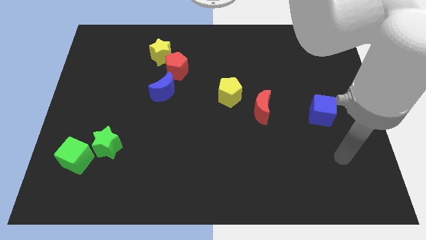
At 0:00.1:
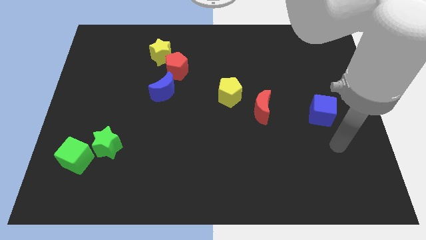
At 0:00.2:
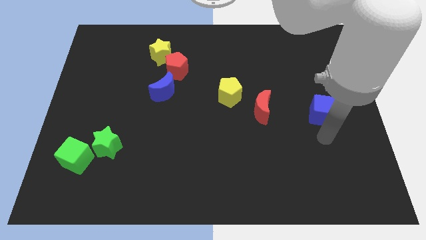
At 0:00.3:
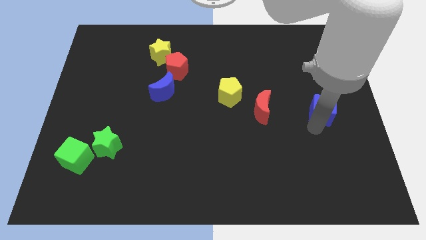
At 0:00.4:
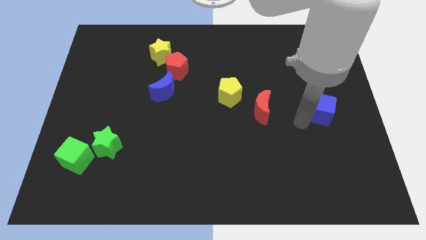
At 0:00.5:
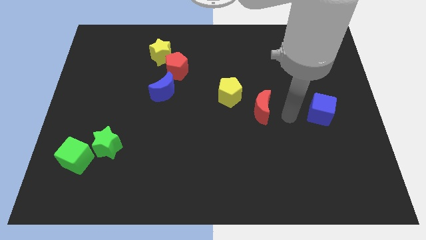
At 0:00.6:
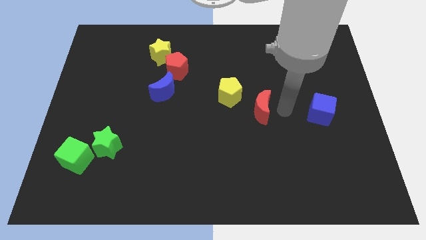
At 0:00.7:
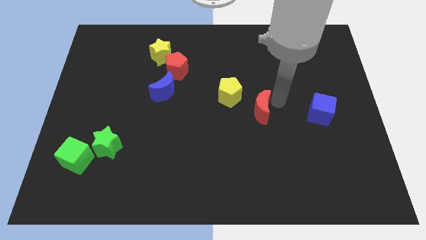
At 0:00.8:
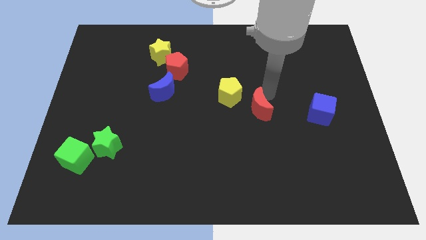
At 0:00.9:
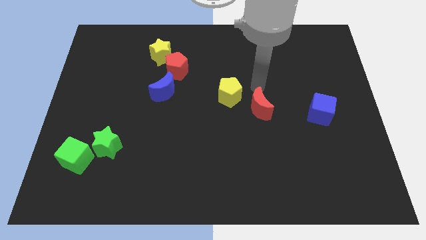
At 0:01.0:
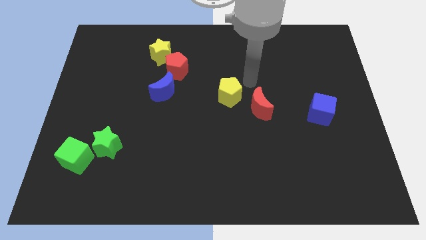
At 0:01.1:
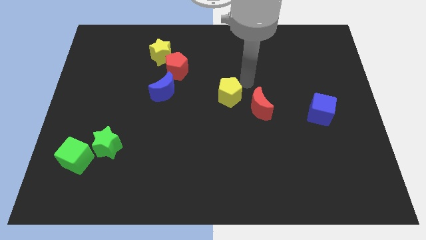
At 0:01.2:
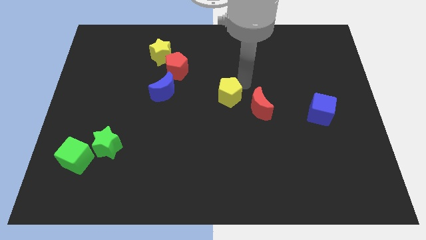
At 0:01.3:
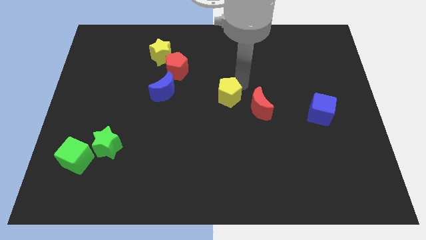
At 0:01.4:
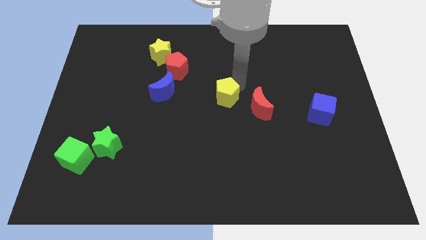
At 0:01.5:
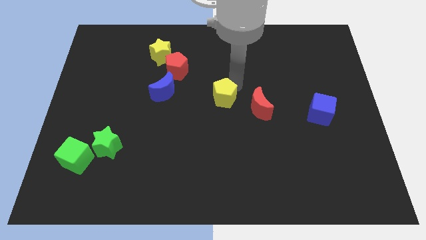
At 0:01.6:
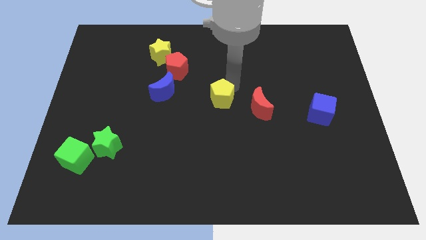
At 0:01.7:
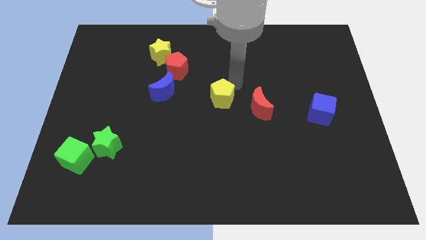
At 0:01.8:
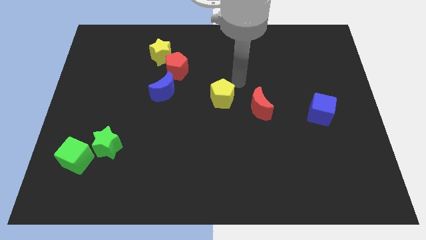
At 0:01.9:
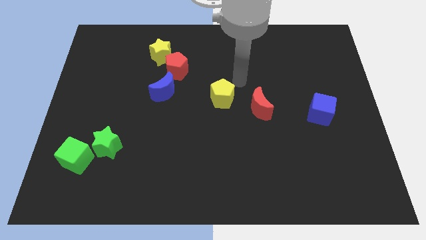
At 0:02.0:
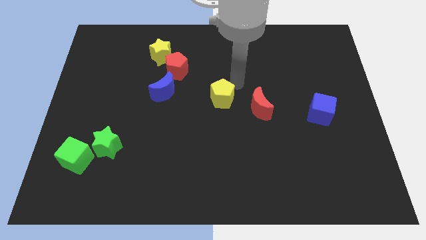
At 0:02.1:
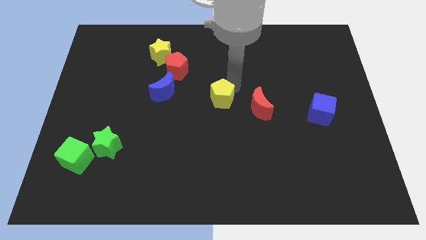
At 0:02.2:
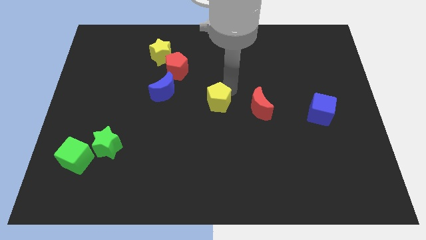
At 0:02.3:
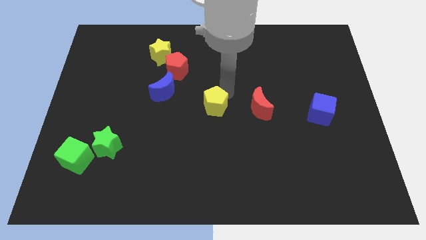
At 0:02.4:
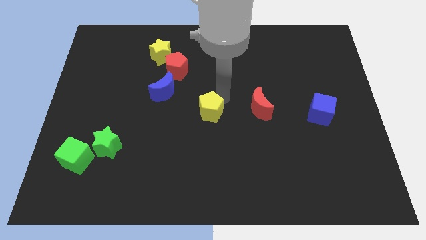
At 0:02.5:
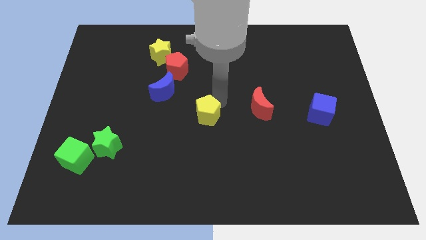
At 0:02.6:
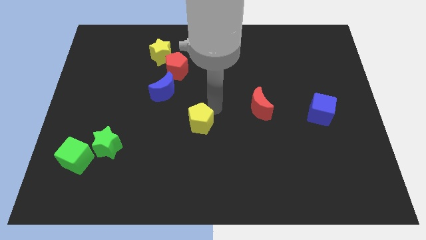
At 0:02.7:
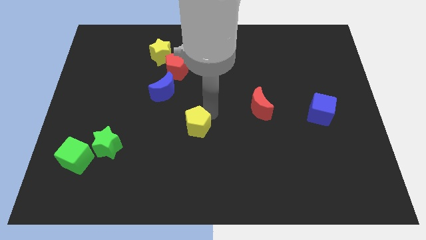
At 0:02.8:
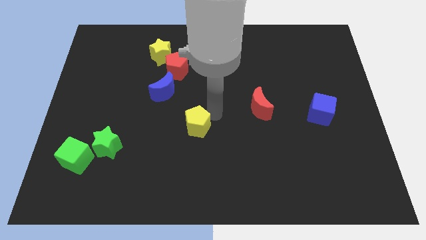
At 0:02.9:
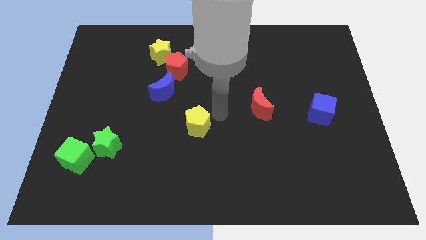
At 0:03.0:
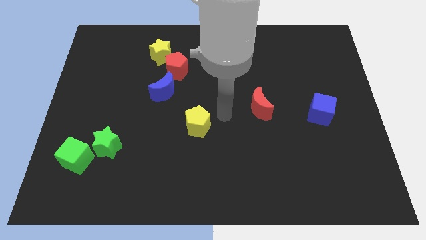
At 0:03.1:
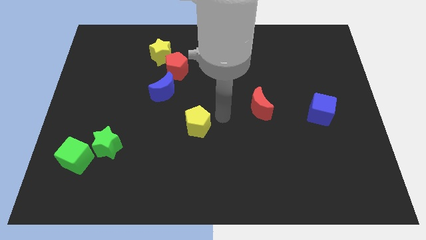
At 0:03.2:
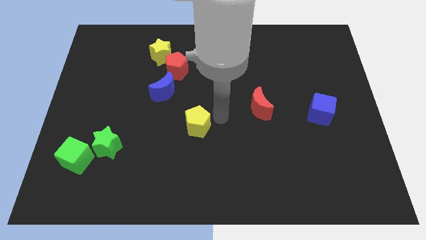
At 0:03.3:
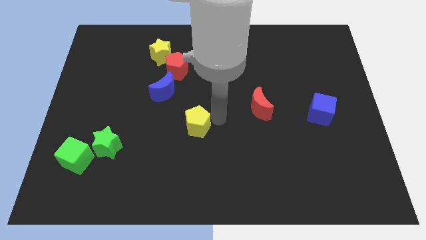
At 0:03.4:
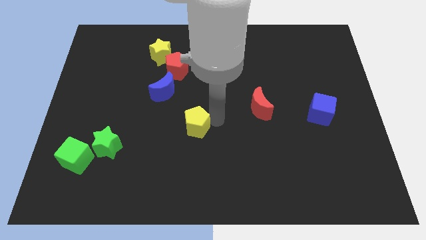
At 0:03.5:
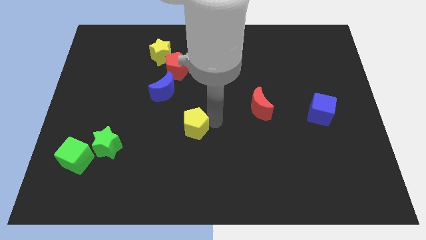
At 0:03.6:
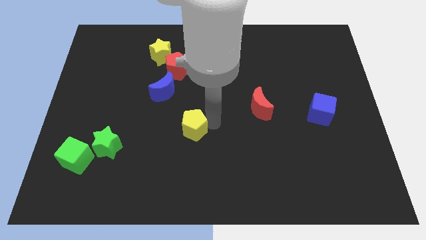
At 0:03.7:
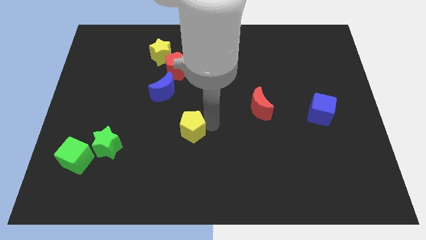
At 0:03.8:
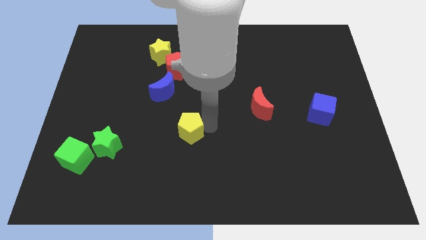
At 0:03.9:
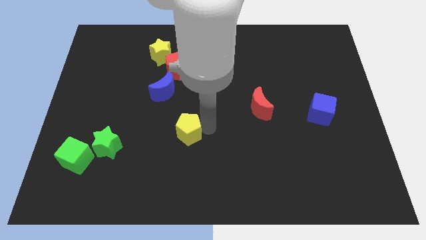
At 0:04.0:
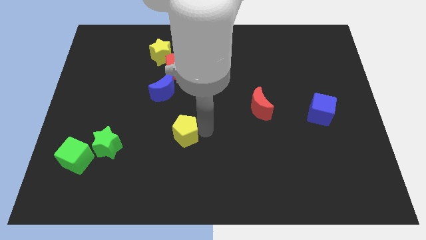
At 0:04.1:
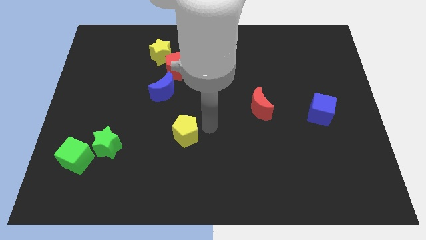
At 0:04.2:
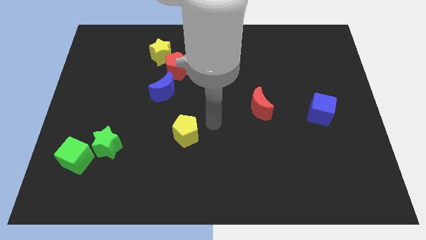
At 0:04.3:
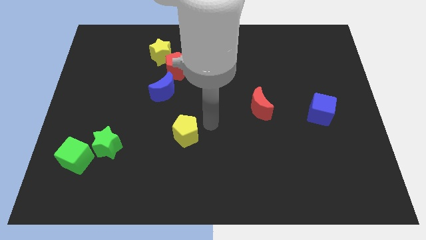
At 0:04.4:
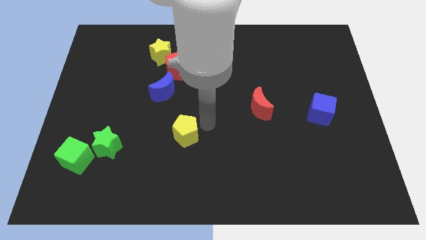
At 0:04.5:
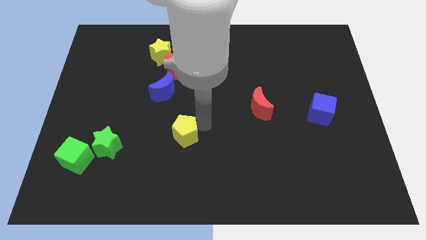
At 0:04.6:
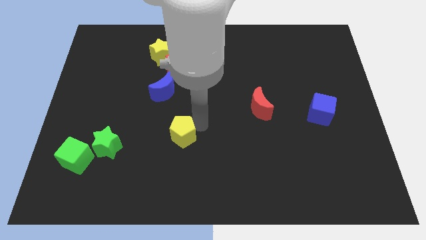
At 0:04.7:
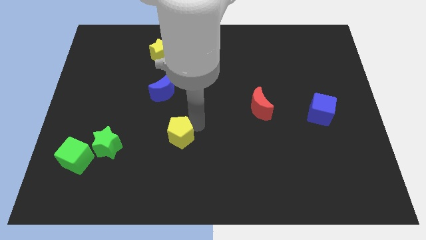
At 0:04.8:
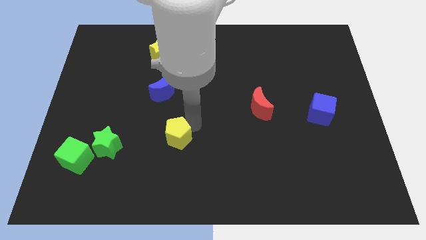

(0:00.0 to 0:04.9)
move the yellow pentagon right of the green star

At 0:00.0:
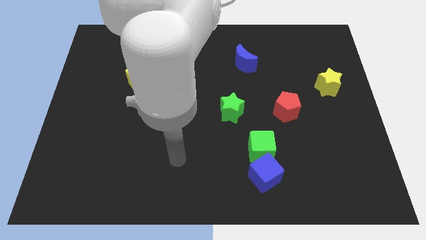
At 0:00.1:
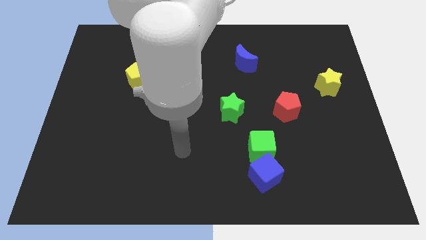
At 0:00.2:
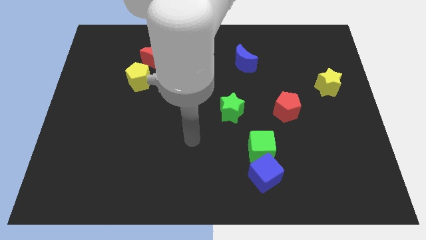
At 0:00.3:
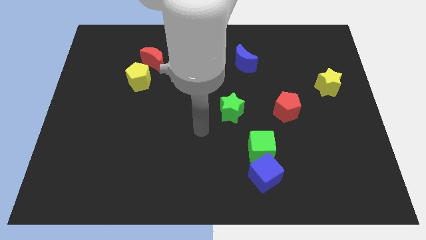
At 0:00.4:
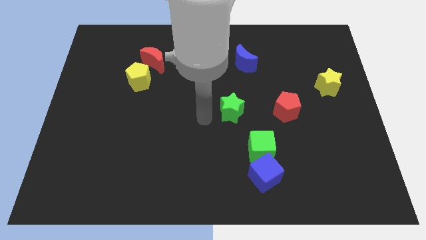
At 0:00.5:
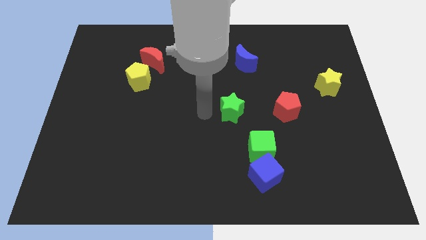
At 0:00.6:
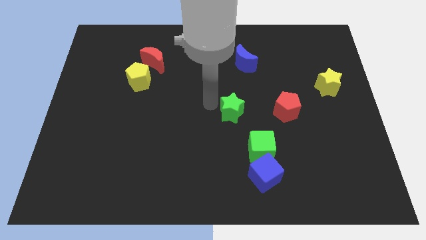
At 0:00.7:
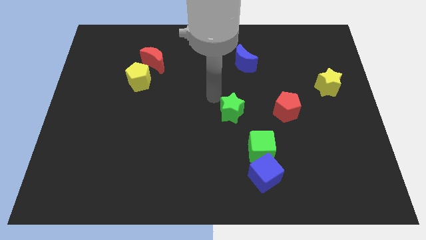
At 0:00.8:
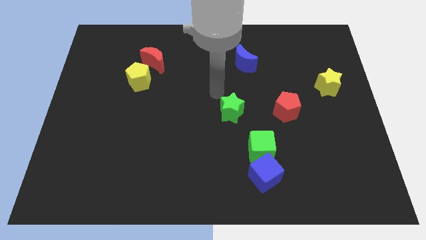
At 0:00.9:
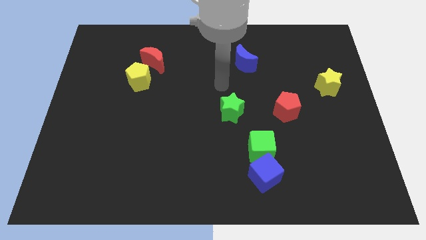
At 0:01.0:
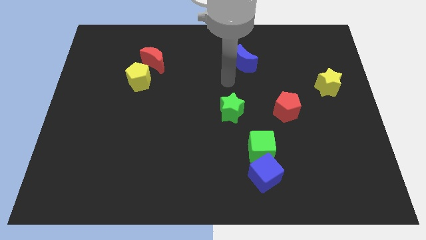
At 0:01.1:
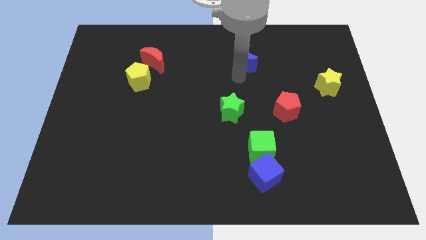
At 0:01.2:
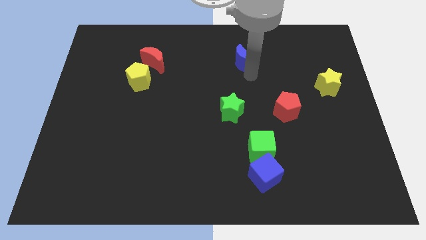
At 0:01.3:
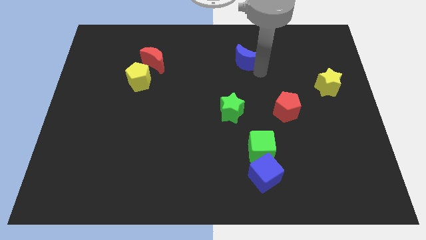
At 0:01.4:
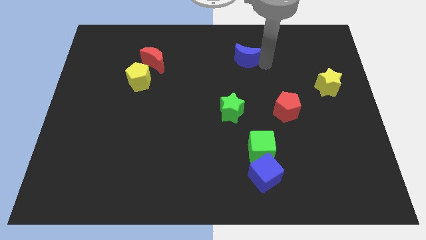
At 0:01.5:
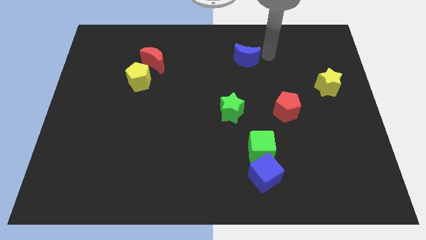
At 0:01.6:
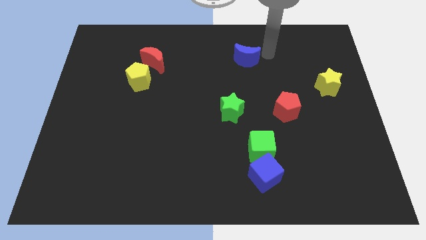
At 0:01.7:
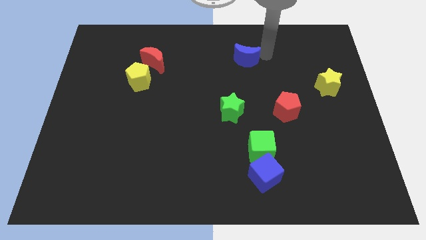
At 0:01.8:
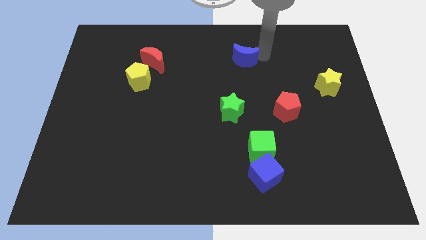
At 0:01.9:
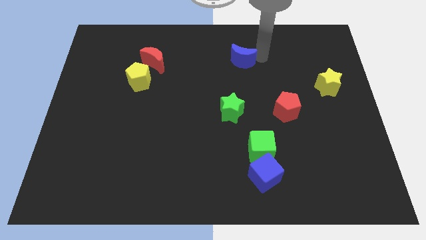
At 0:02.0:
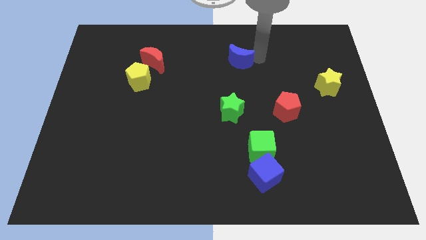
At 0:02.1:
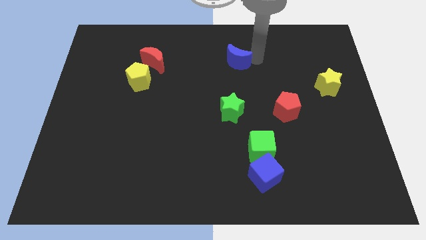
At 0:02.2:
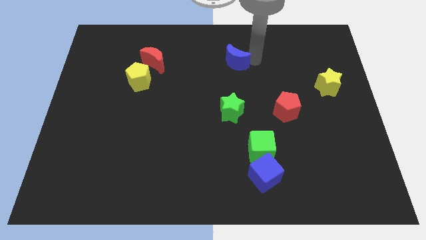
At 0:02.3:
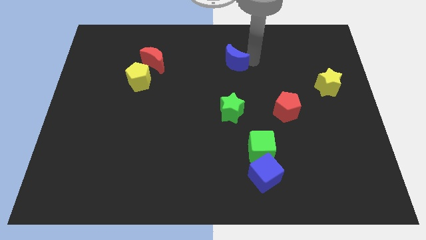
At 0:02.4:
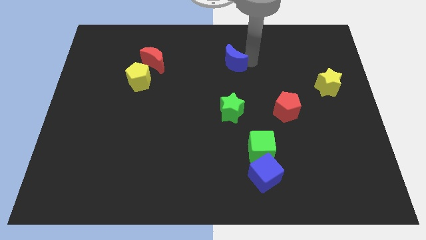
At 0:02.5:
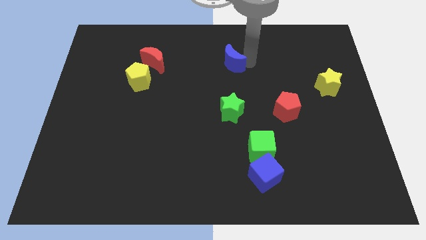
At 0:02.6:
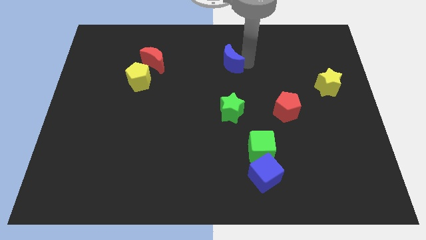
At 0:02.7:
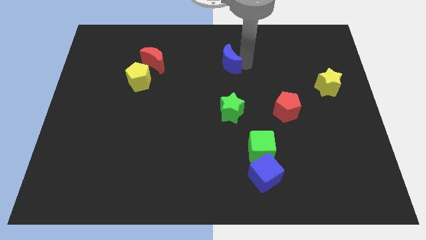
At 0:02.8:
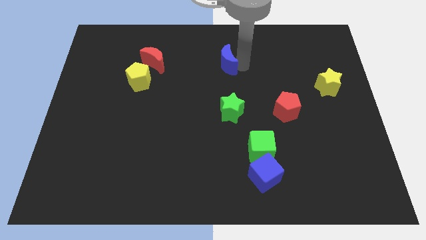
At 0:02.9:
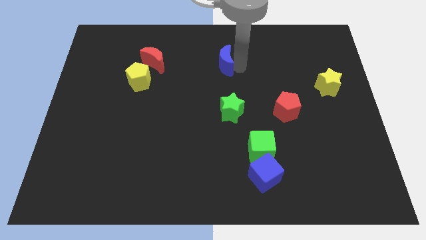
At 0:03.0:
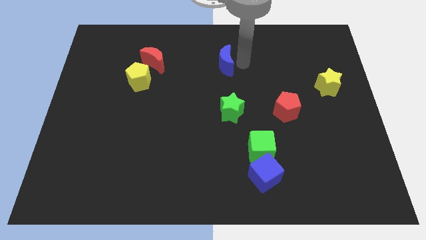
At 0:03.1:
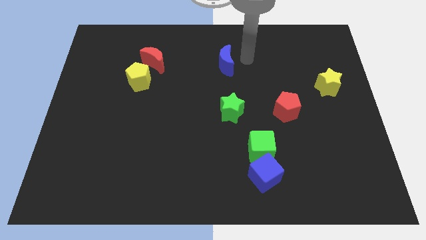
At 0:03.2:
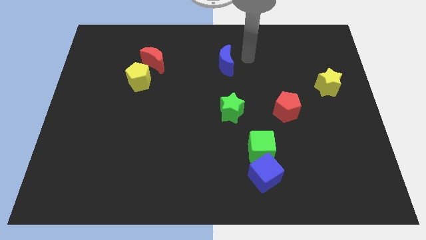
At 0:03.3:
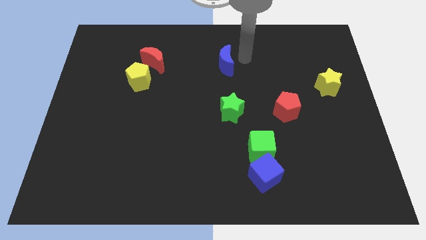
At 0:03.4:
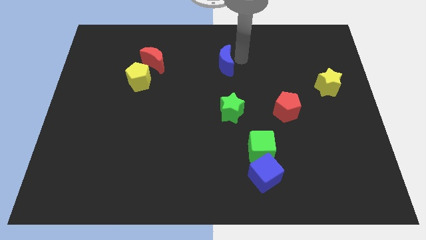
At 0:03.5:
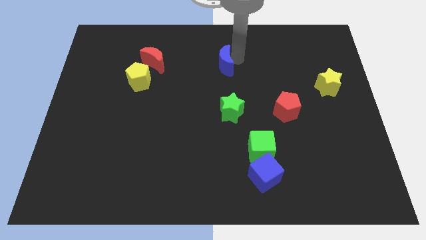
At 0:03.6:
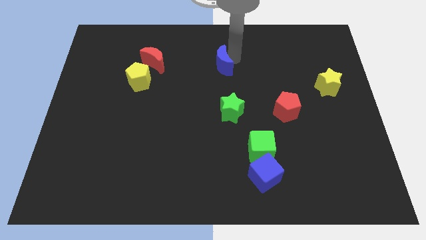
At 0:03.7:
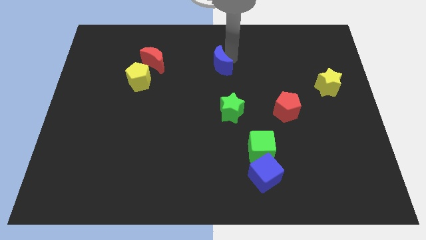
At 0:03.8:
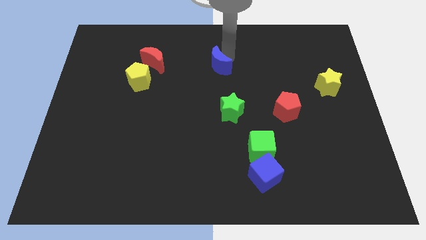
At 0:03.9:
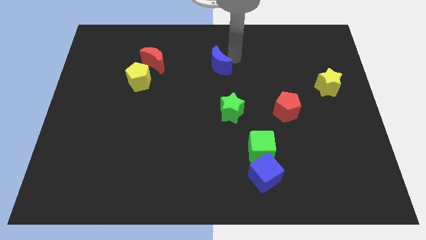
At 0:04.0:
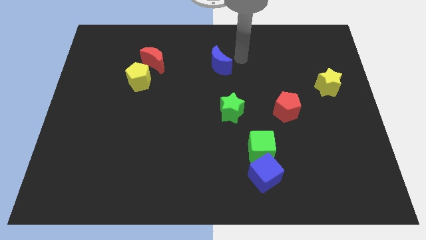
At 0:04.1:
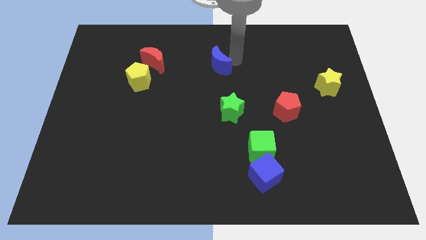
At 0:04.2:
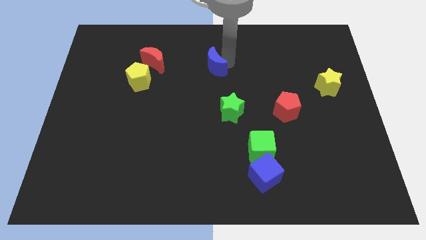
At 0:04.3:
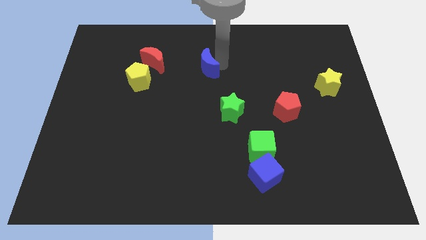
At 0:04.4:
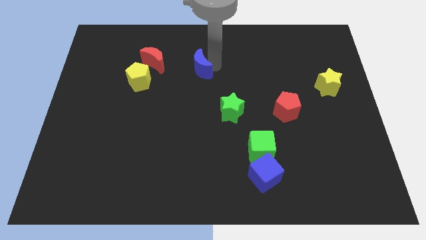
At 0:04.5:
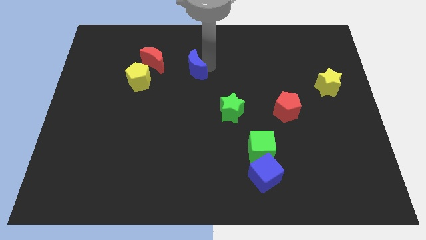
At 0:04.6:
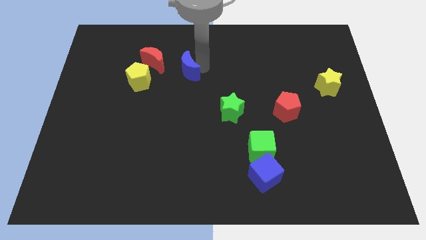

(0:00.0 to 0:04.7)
put the blue moon diagonally down and to the right of the red moon
